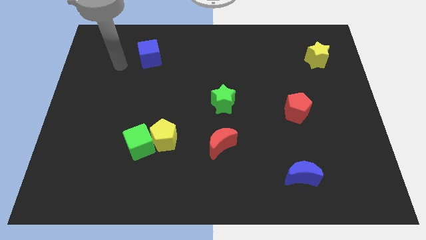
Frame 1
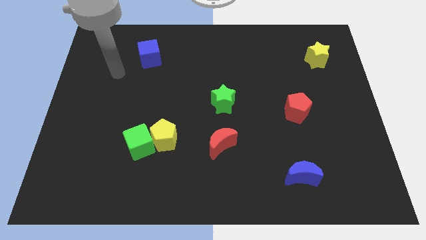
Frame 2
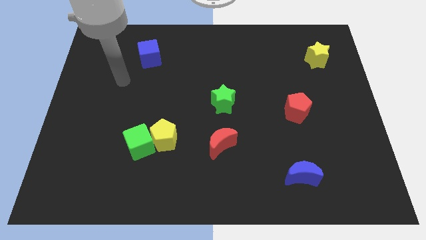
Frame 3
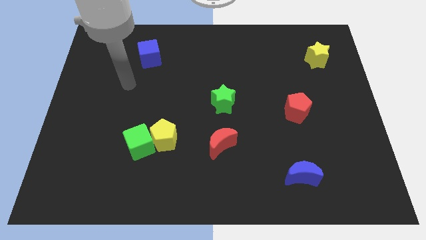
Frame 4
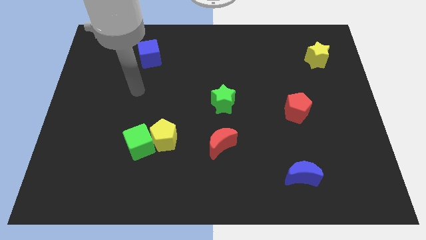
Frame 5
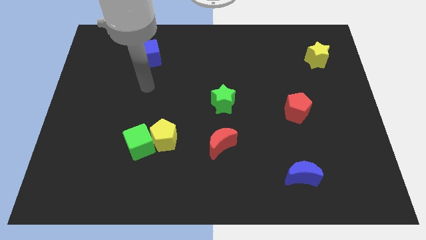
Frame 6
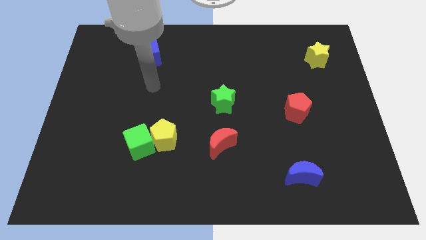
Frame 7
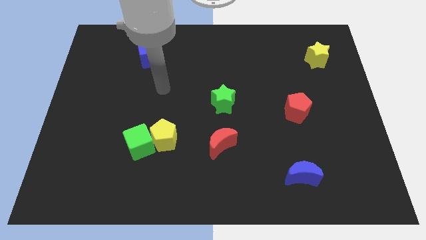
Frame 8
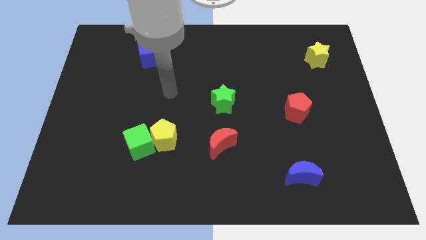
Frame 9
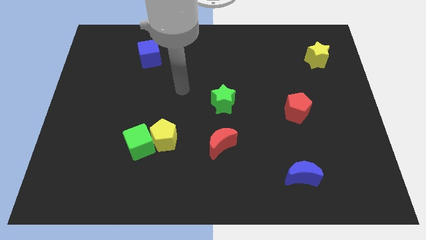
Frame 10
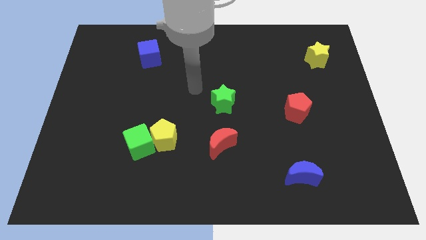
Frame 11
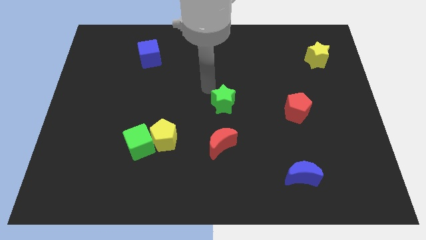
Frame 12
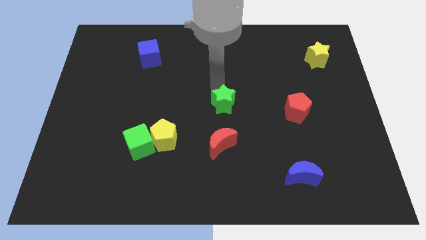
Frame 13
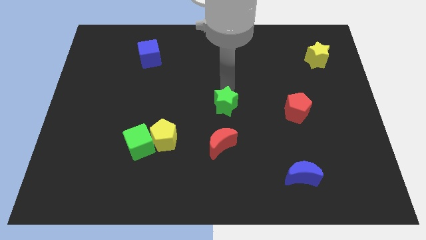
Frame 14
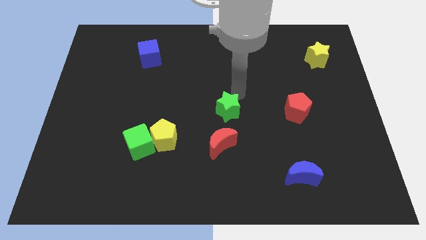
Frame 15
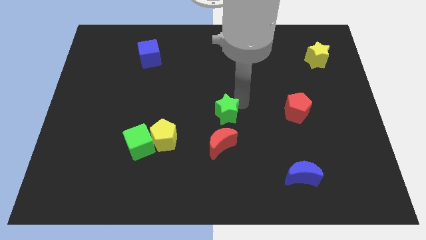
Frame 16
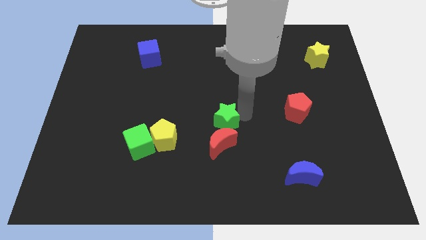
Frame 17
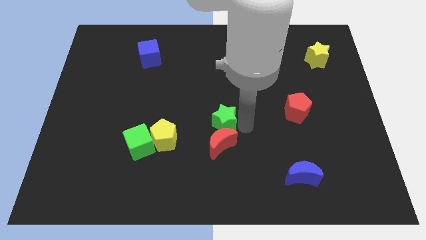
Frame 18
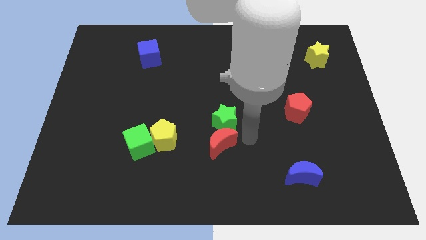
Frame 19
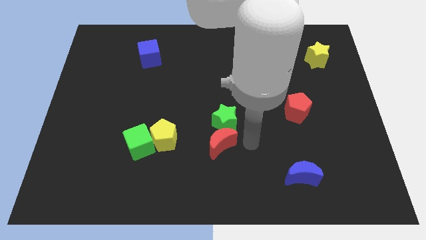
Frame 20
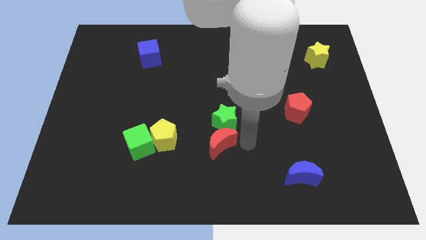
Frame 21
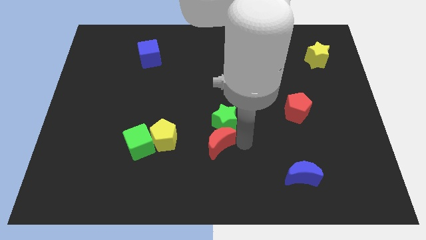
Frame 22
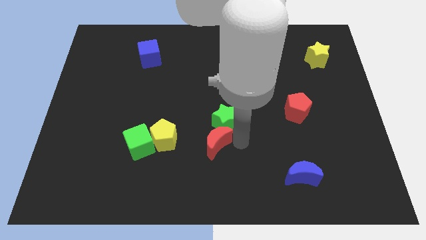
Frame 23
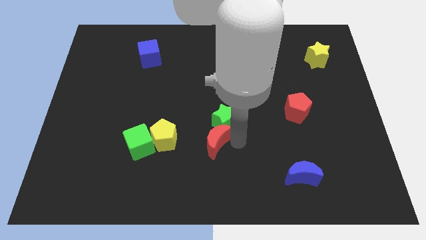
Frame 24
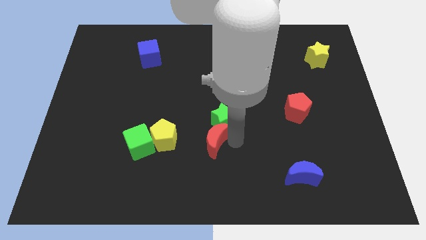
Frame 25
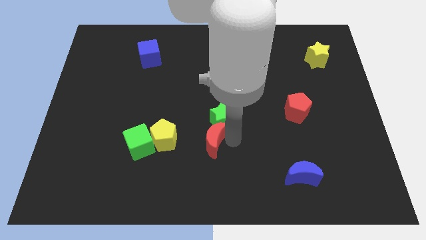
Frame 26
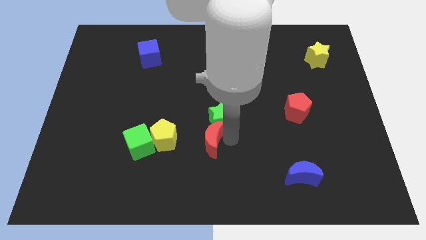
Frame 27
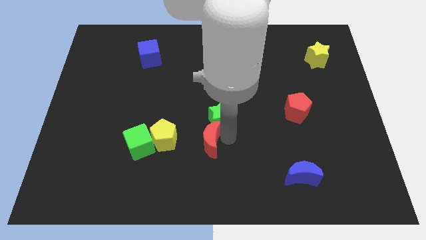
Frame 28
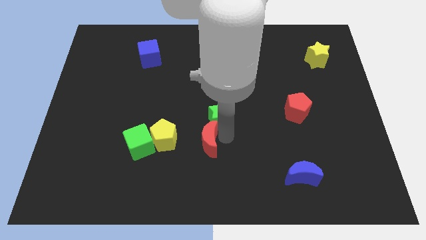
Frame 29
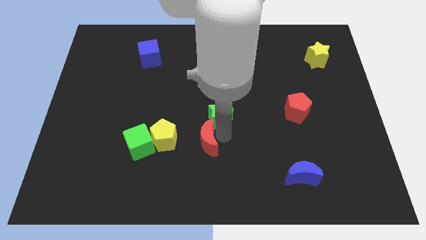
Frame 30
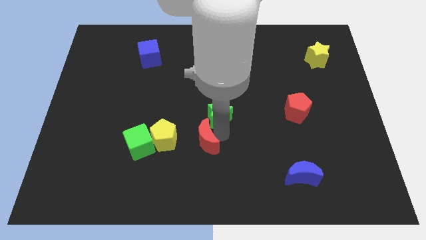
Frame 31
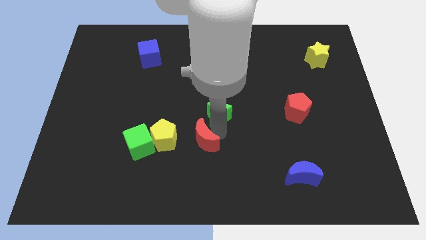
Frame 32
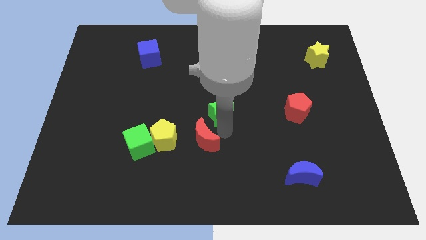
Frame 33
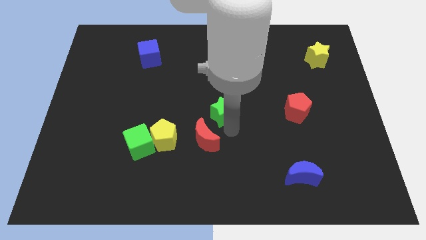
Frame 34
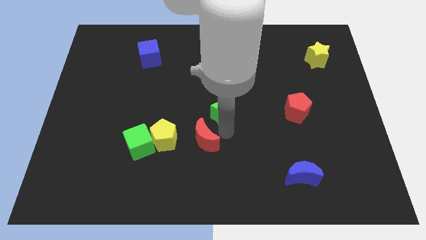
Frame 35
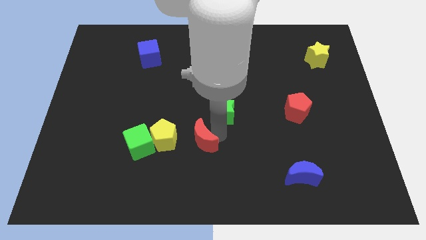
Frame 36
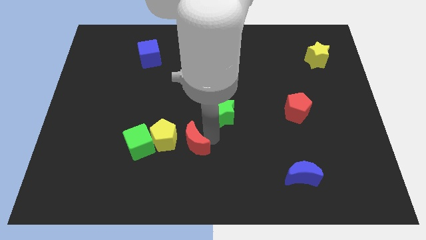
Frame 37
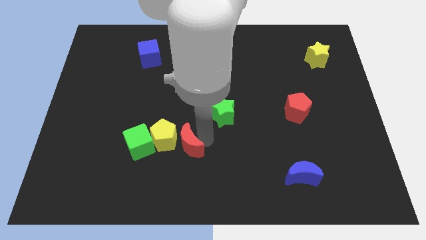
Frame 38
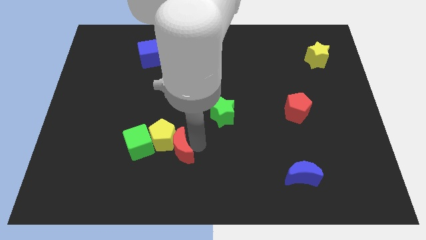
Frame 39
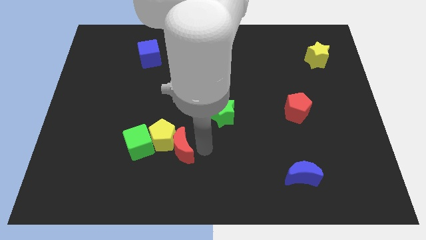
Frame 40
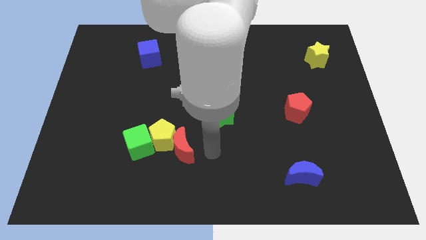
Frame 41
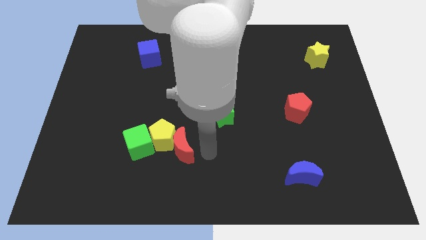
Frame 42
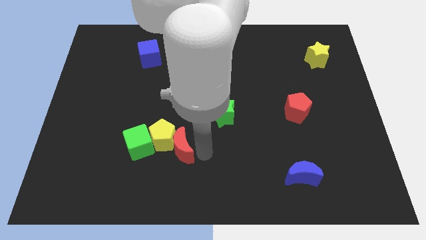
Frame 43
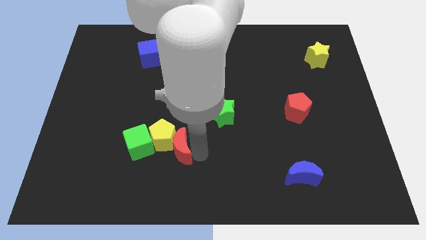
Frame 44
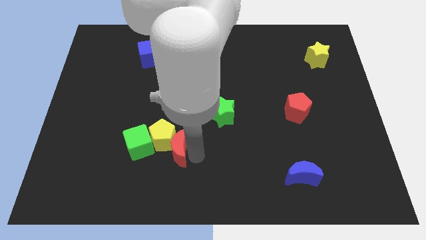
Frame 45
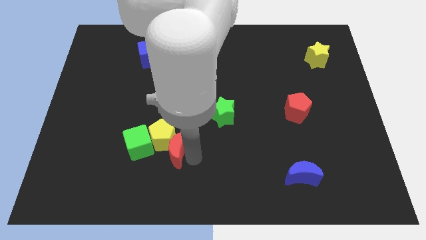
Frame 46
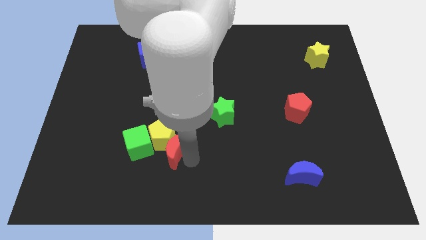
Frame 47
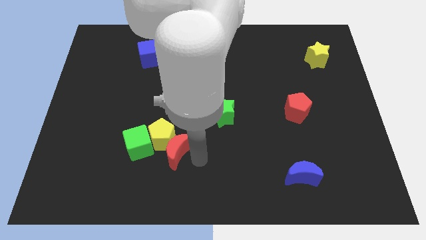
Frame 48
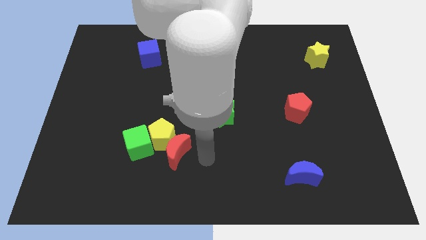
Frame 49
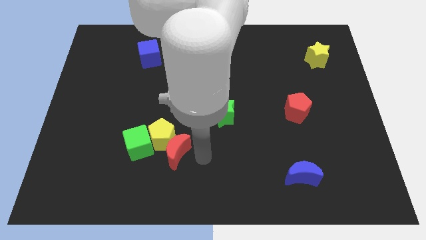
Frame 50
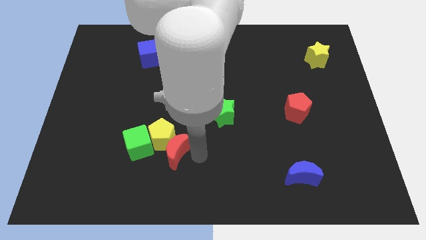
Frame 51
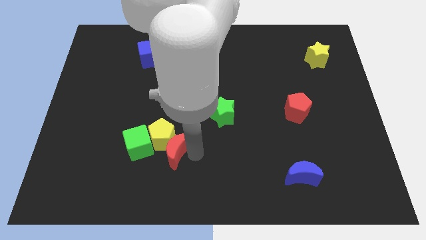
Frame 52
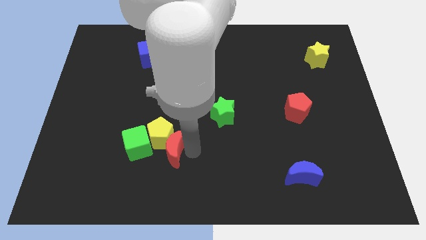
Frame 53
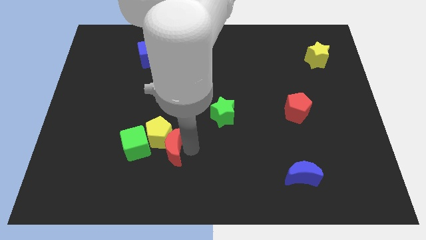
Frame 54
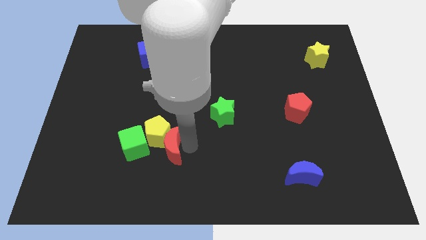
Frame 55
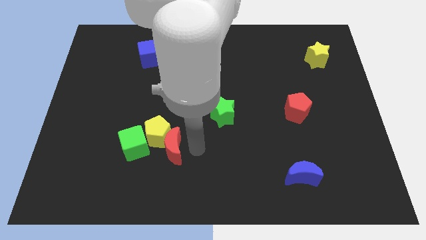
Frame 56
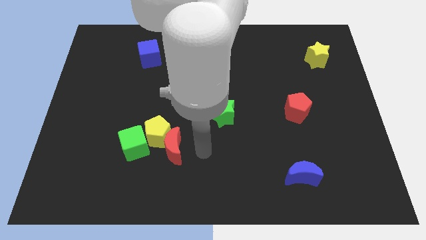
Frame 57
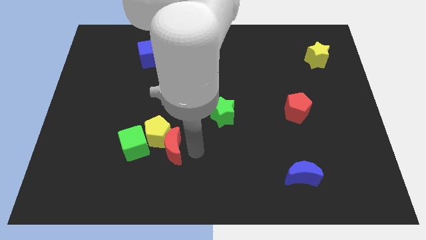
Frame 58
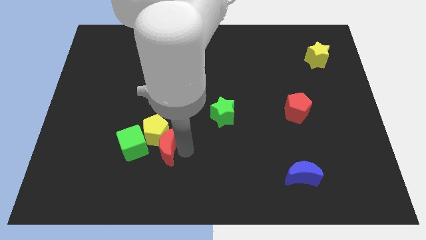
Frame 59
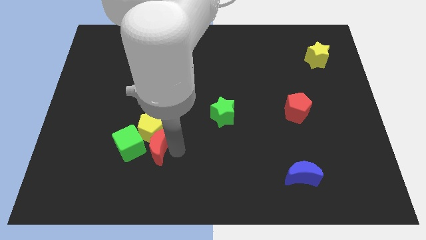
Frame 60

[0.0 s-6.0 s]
put the red moon close to the green cube

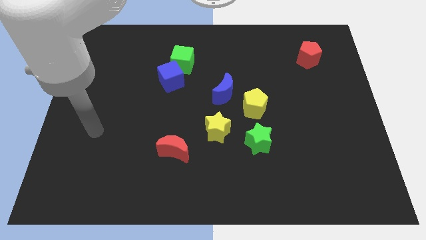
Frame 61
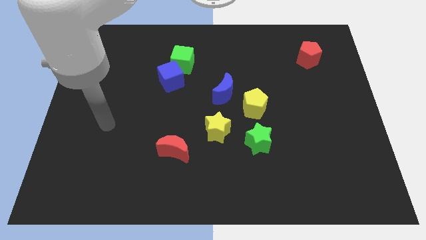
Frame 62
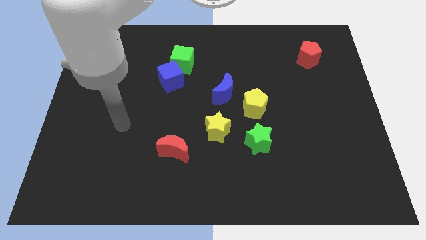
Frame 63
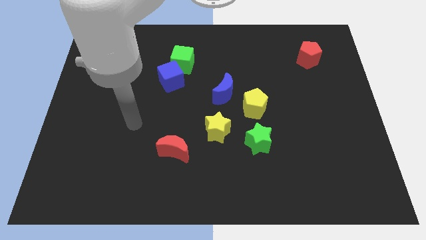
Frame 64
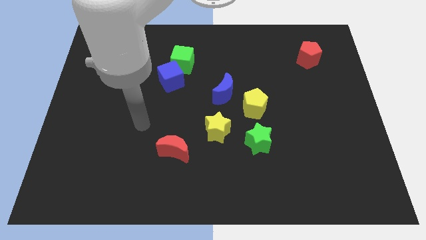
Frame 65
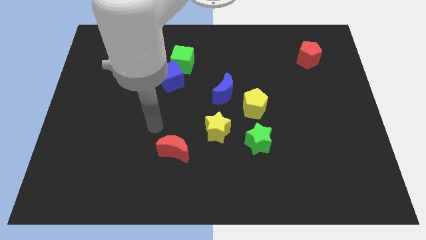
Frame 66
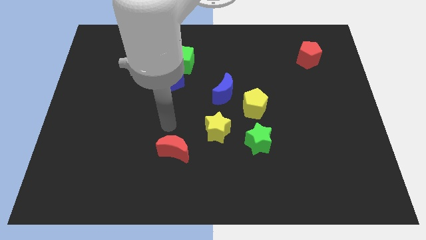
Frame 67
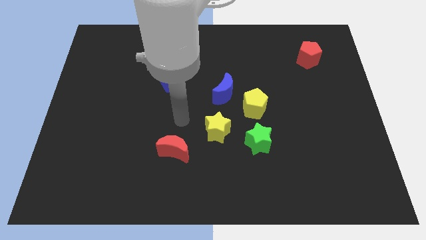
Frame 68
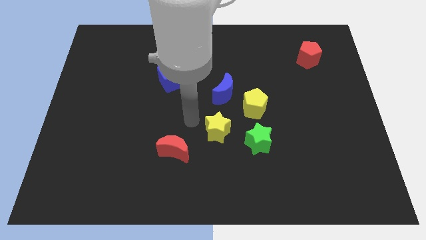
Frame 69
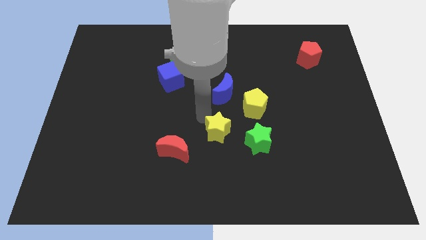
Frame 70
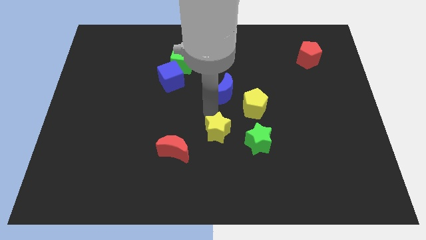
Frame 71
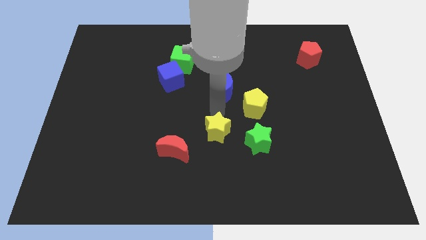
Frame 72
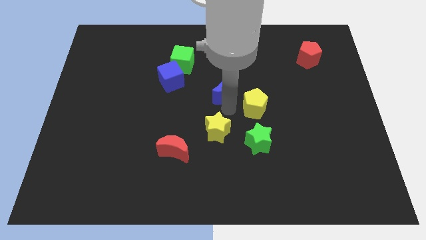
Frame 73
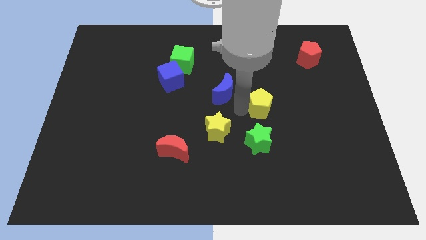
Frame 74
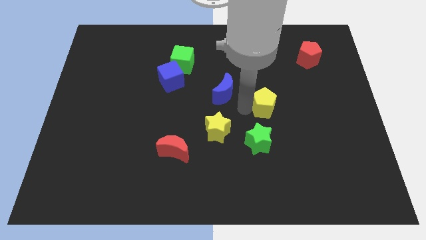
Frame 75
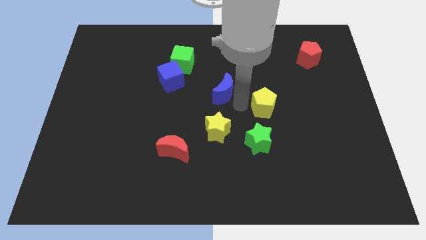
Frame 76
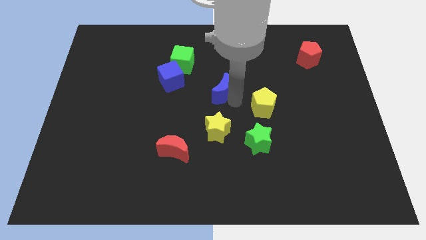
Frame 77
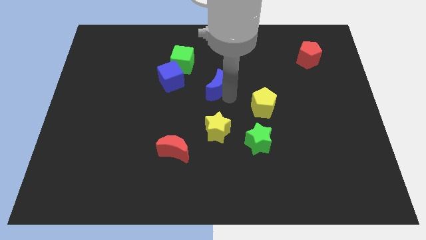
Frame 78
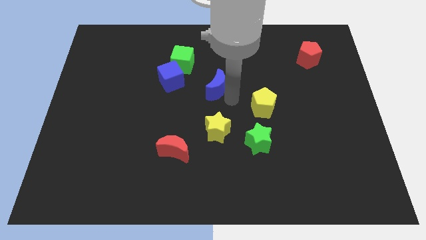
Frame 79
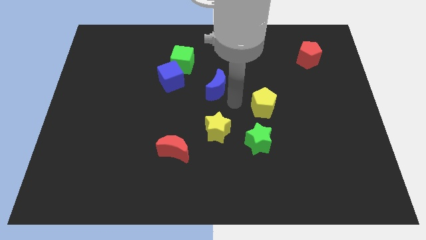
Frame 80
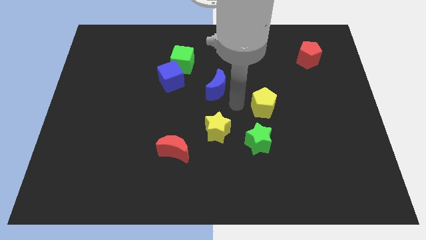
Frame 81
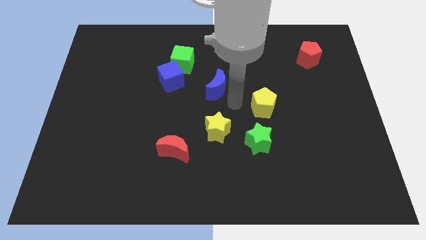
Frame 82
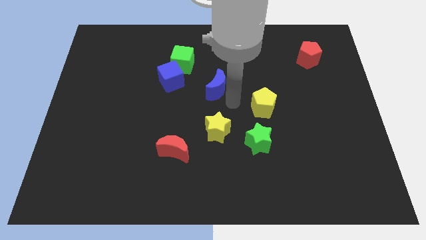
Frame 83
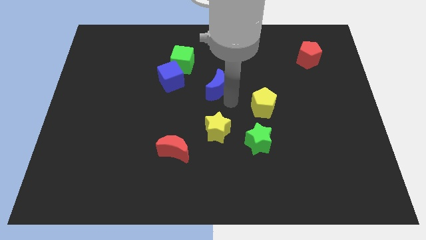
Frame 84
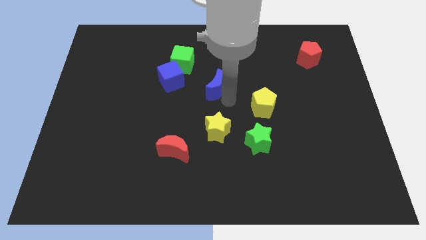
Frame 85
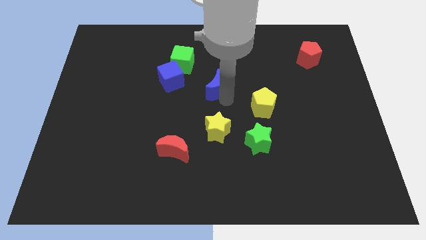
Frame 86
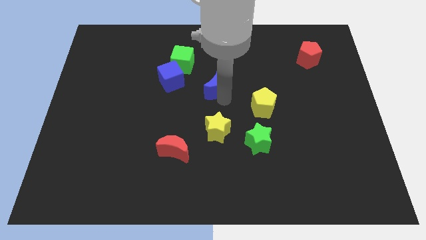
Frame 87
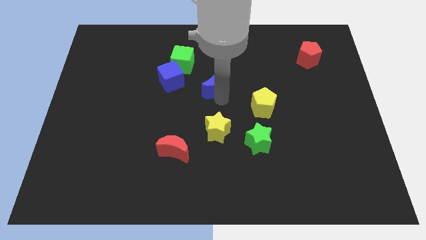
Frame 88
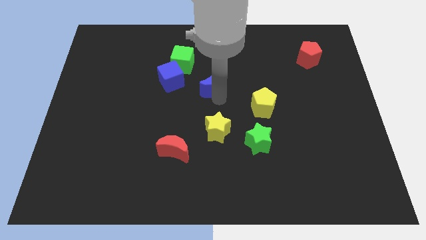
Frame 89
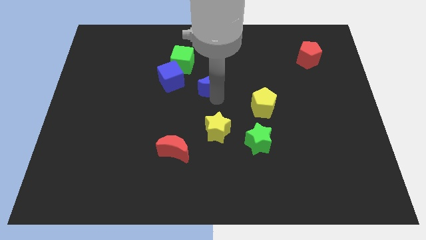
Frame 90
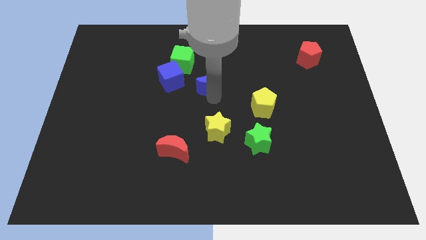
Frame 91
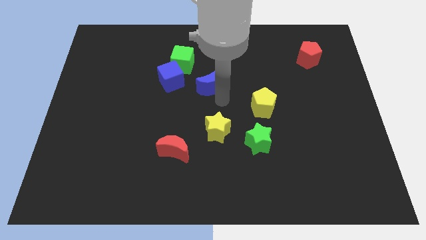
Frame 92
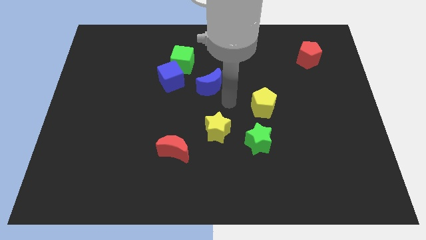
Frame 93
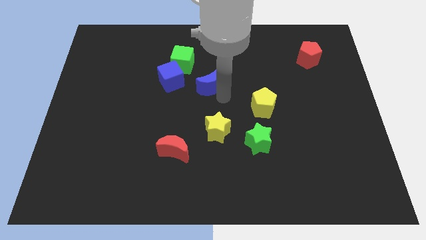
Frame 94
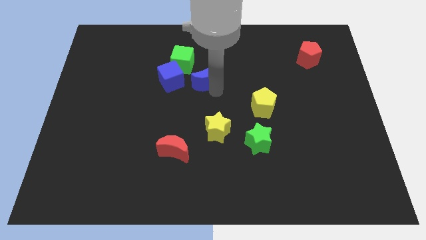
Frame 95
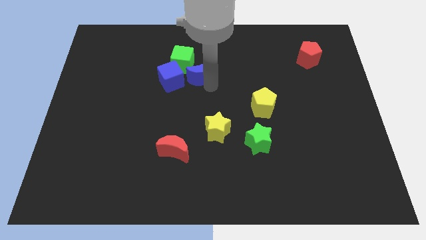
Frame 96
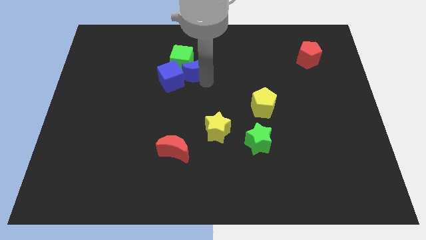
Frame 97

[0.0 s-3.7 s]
slide the blue moon close to the green cube
